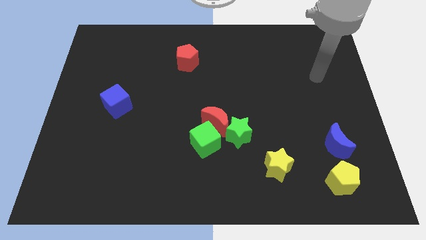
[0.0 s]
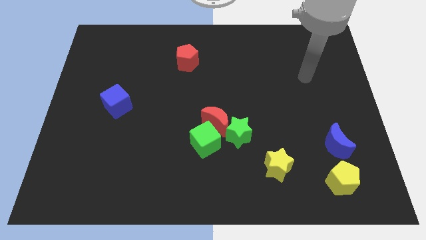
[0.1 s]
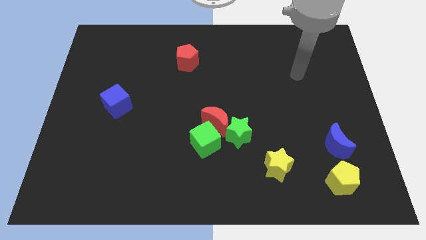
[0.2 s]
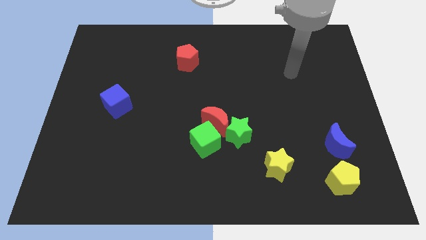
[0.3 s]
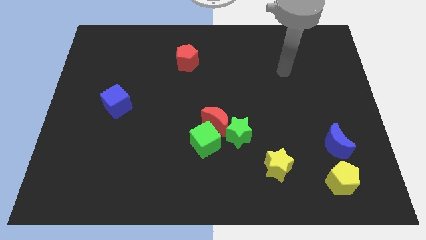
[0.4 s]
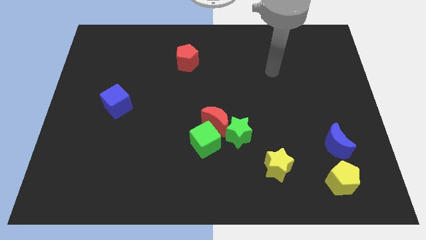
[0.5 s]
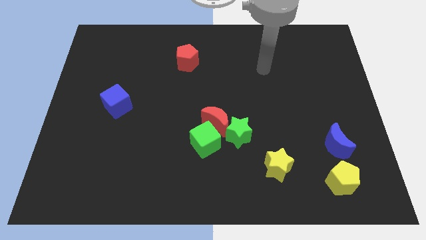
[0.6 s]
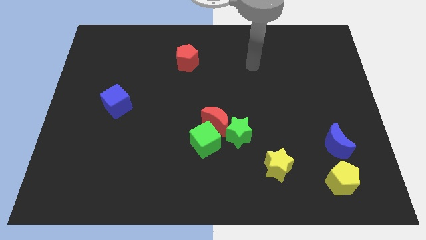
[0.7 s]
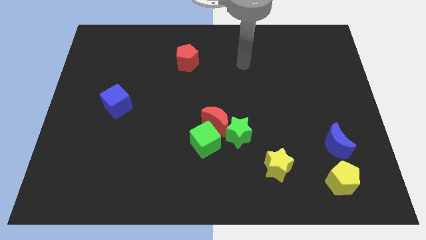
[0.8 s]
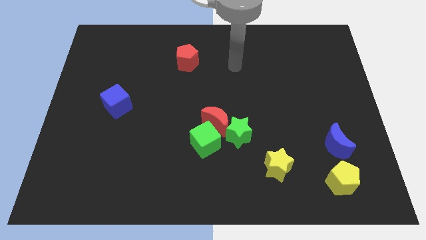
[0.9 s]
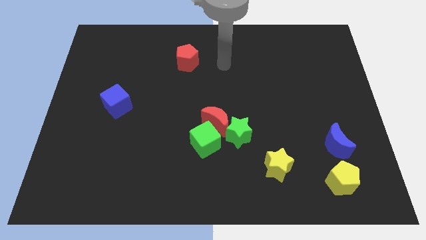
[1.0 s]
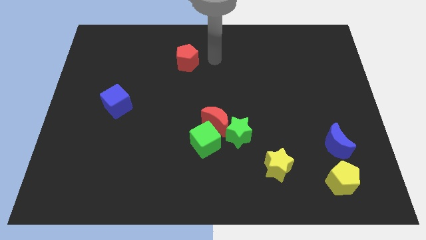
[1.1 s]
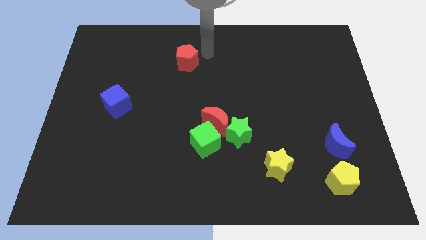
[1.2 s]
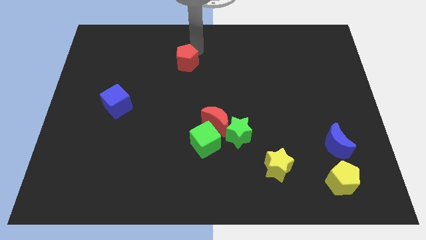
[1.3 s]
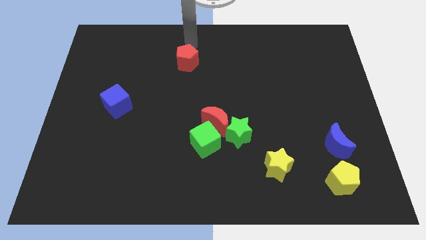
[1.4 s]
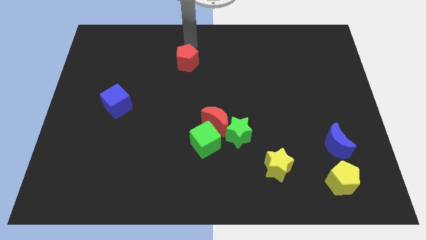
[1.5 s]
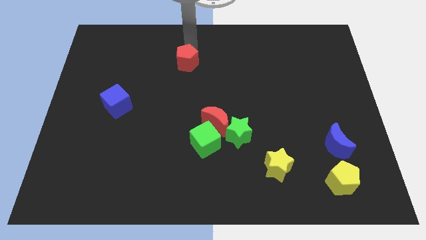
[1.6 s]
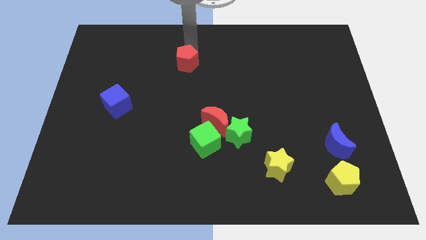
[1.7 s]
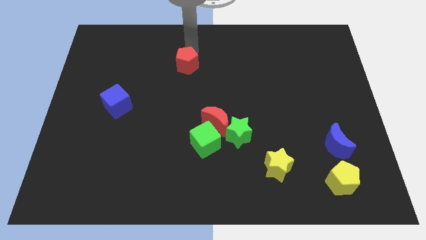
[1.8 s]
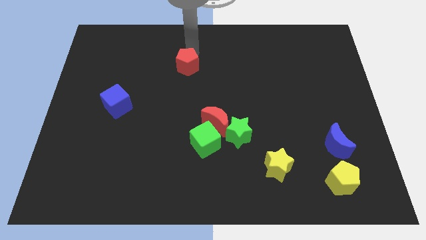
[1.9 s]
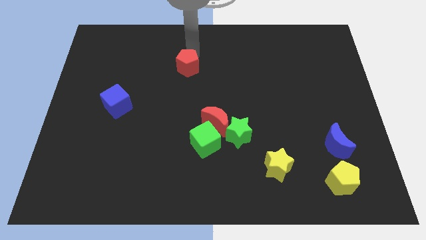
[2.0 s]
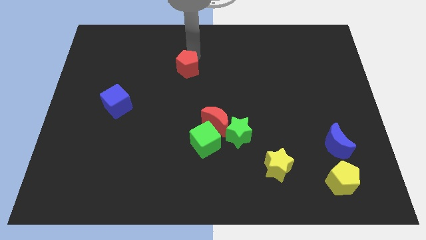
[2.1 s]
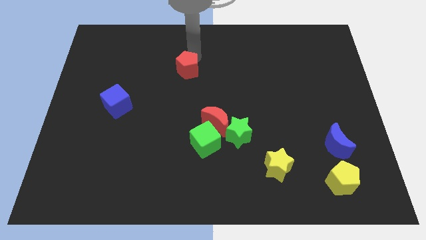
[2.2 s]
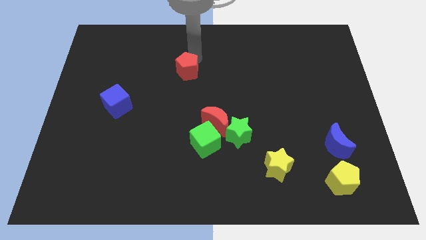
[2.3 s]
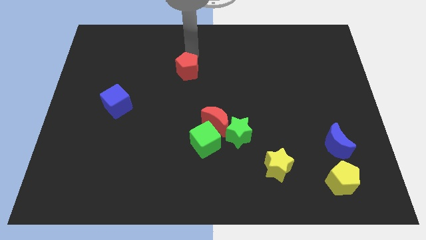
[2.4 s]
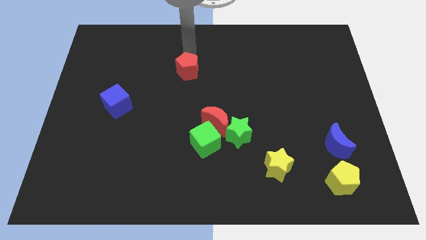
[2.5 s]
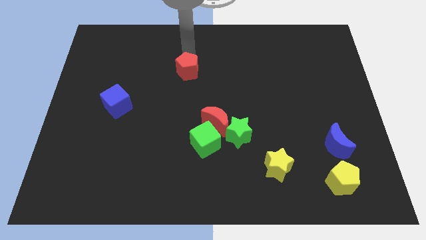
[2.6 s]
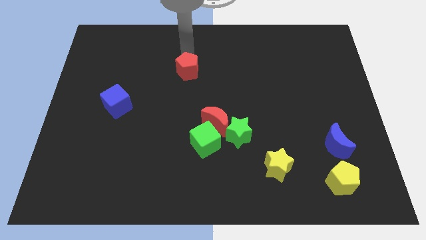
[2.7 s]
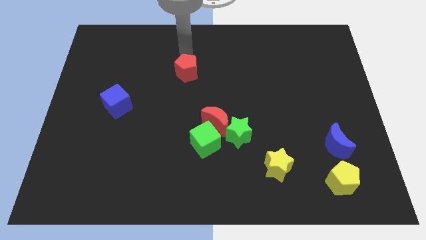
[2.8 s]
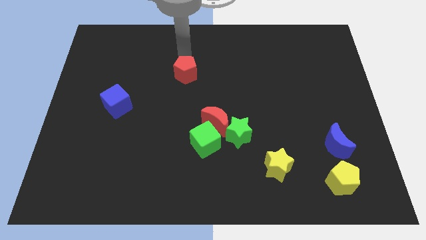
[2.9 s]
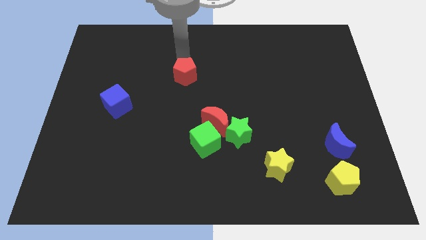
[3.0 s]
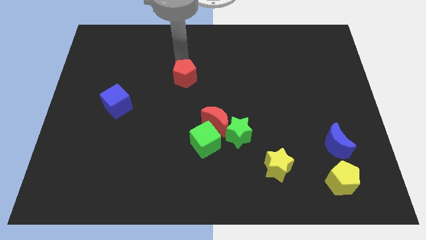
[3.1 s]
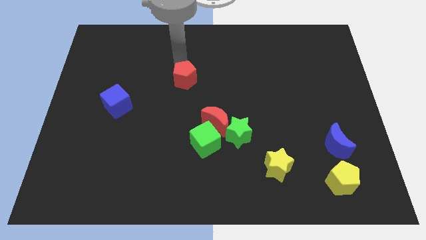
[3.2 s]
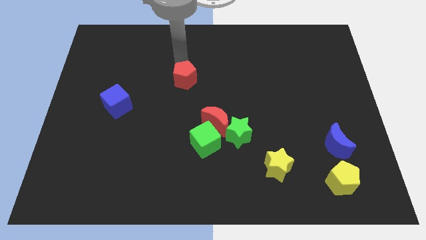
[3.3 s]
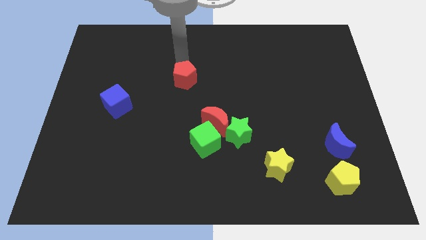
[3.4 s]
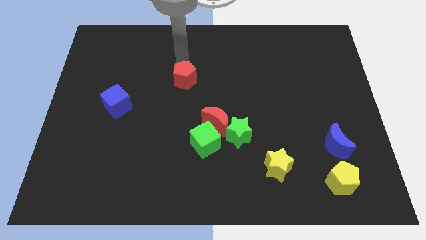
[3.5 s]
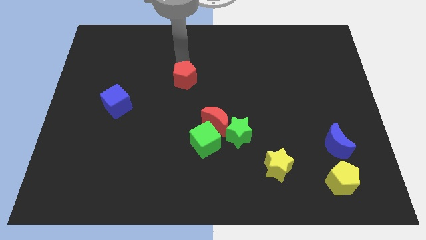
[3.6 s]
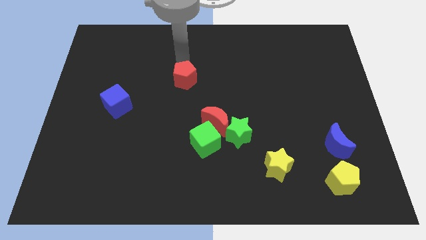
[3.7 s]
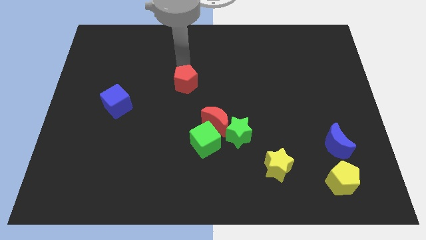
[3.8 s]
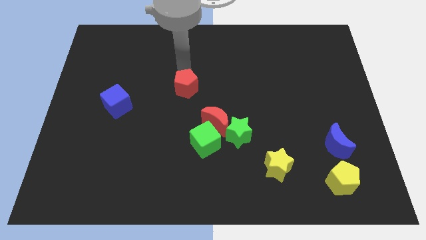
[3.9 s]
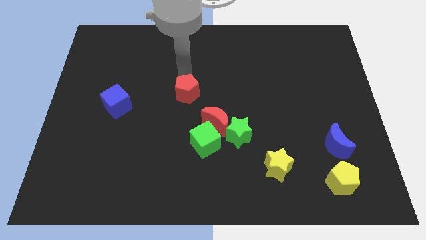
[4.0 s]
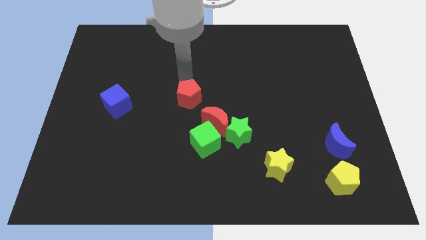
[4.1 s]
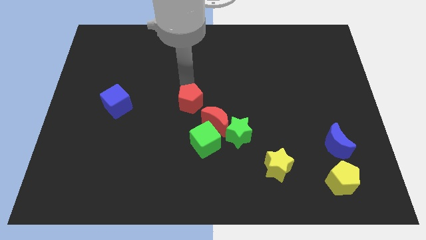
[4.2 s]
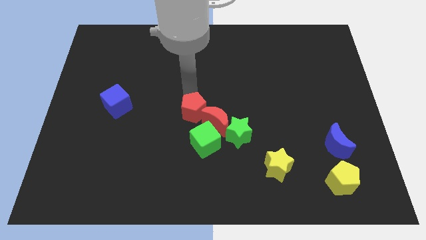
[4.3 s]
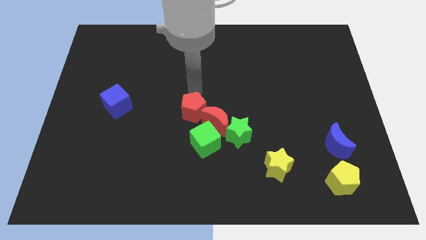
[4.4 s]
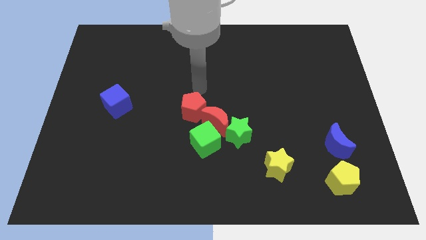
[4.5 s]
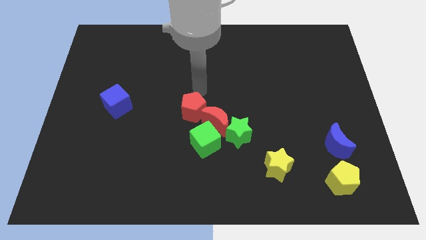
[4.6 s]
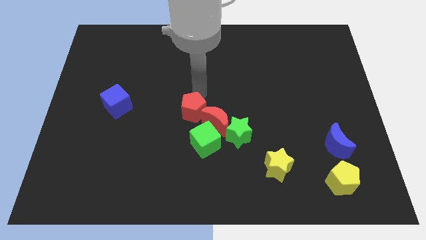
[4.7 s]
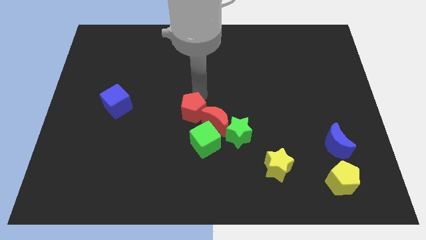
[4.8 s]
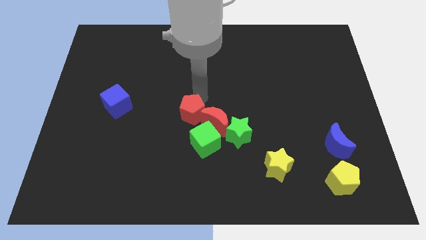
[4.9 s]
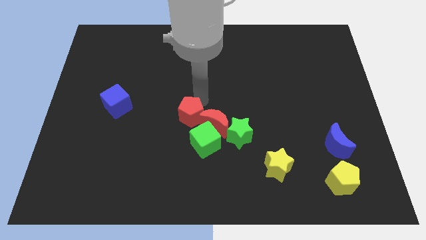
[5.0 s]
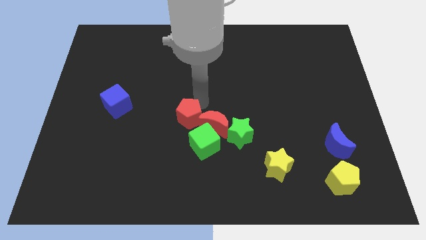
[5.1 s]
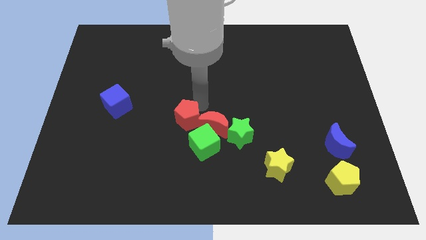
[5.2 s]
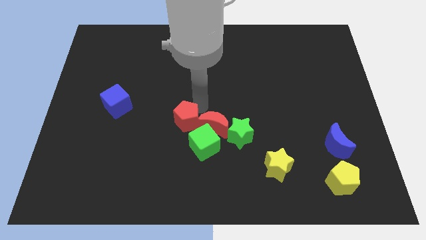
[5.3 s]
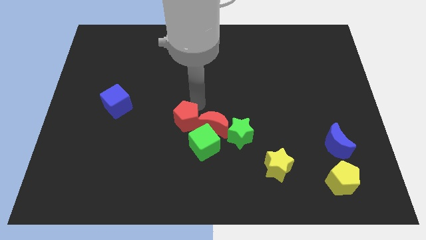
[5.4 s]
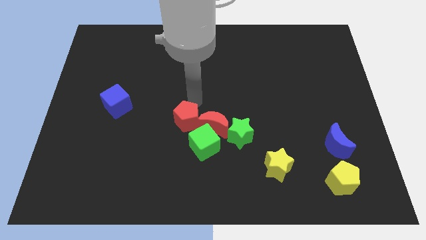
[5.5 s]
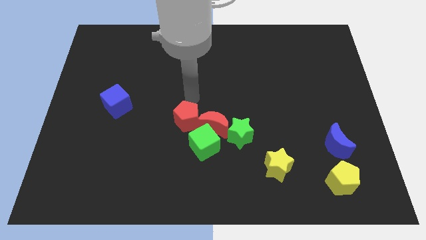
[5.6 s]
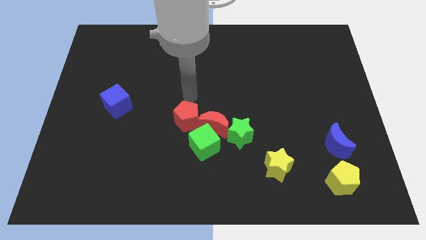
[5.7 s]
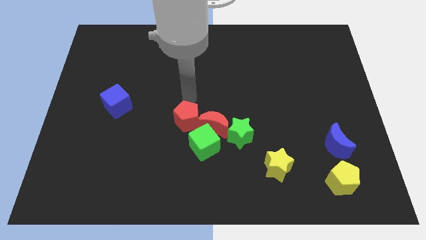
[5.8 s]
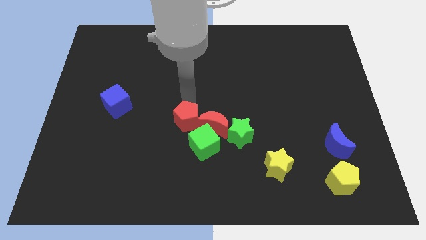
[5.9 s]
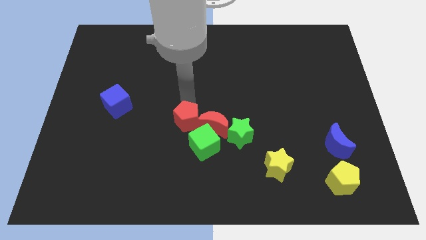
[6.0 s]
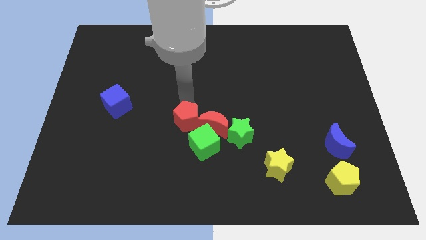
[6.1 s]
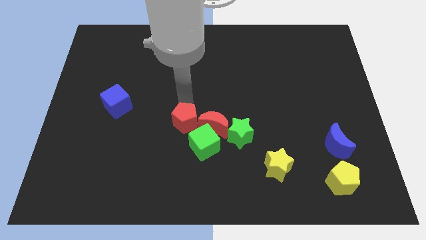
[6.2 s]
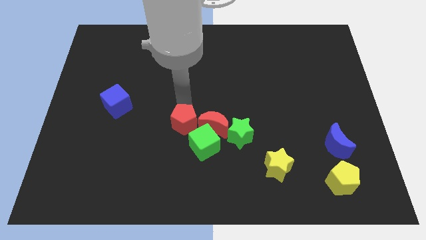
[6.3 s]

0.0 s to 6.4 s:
push the red pentagon downwards

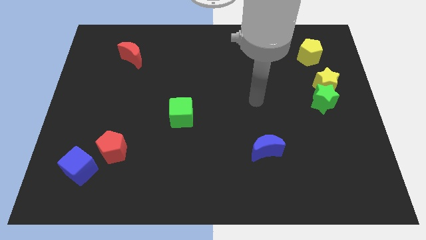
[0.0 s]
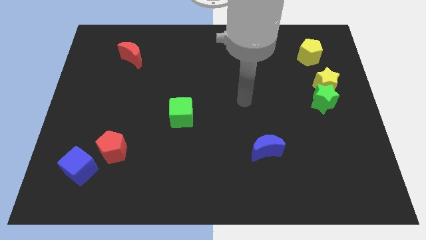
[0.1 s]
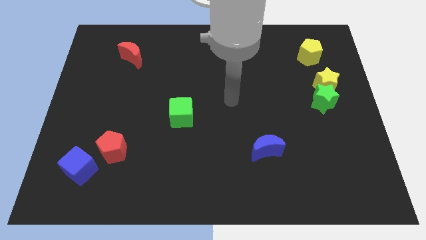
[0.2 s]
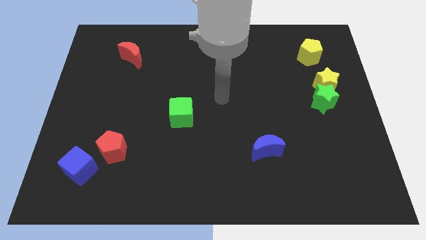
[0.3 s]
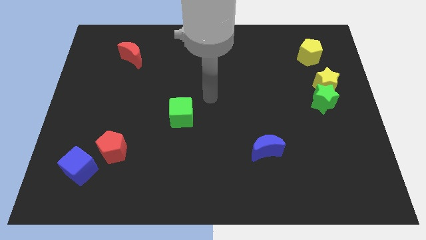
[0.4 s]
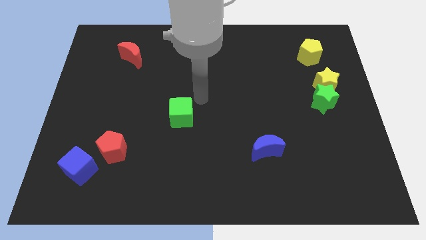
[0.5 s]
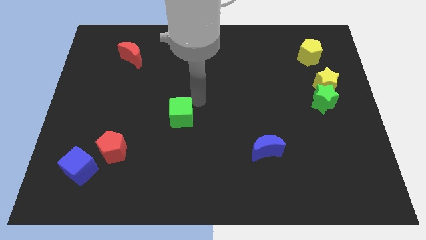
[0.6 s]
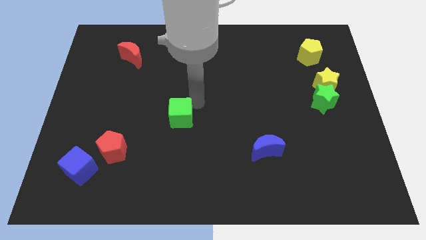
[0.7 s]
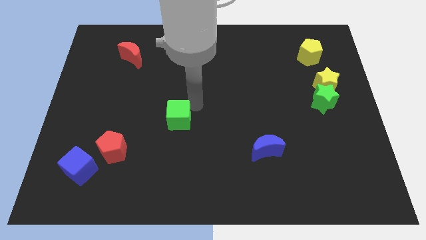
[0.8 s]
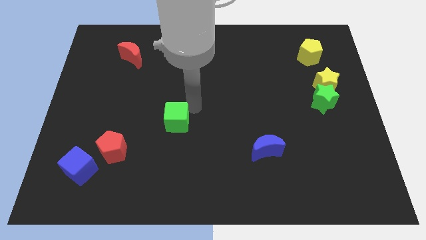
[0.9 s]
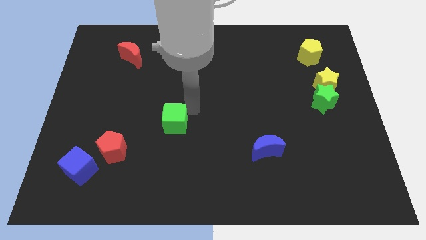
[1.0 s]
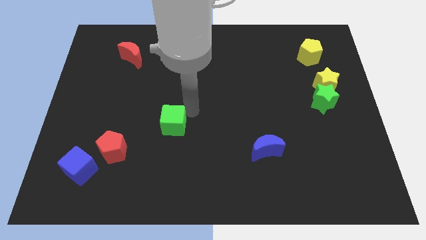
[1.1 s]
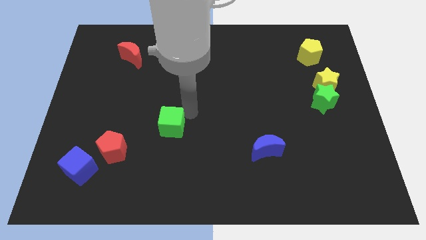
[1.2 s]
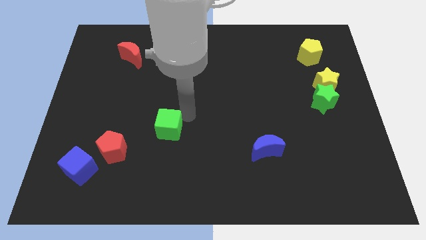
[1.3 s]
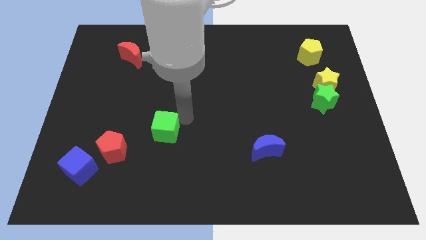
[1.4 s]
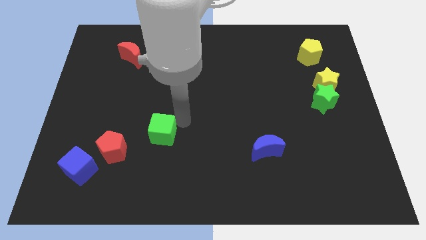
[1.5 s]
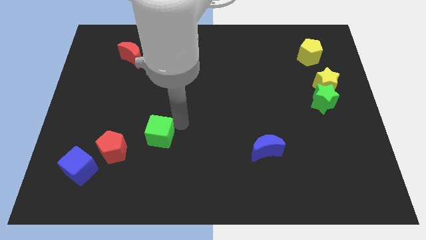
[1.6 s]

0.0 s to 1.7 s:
slide the green cube somewhat downwards and left

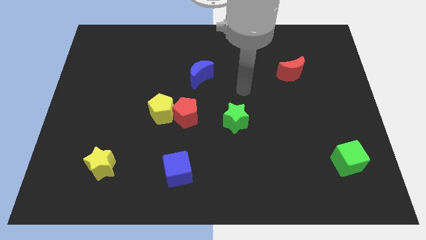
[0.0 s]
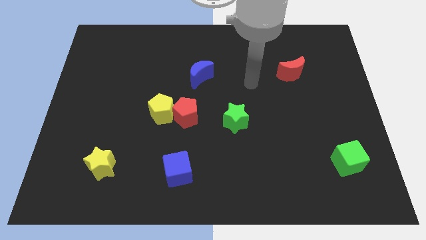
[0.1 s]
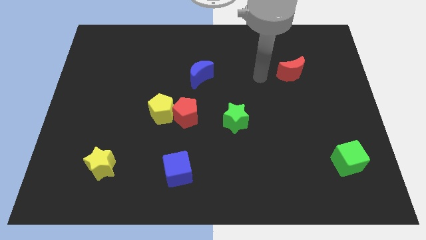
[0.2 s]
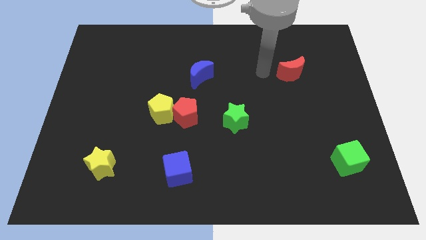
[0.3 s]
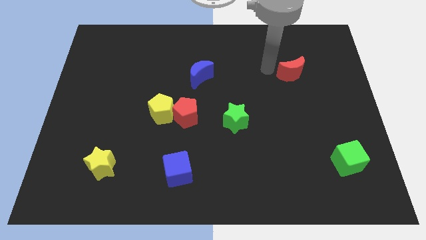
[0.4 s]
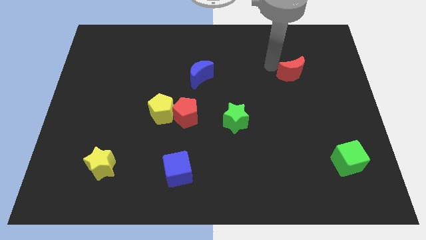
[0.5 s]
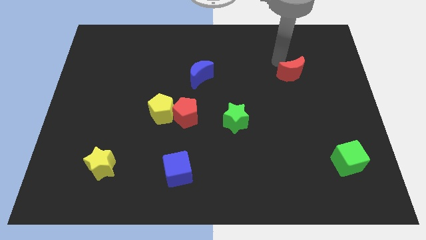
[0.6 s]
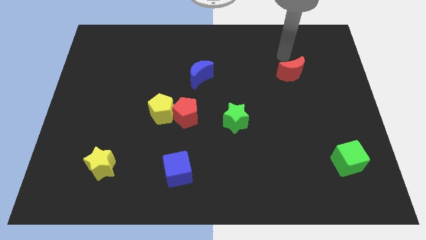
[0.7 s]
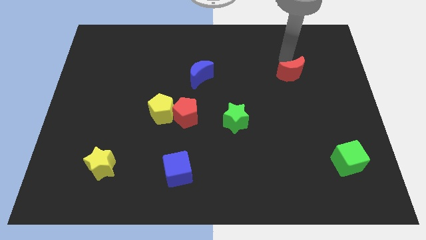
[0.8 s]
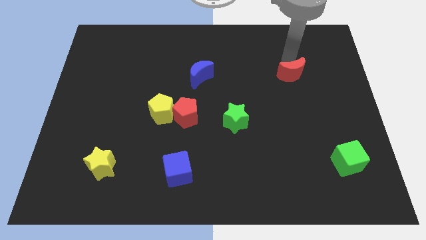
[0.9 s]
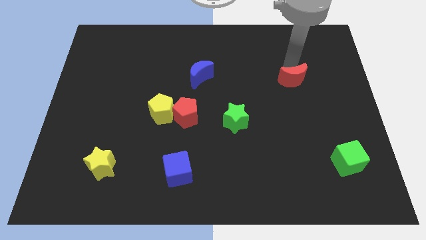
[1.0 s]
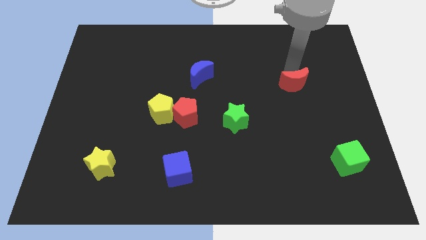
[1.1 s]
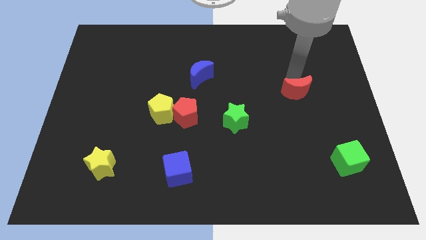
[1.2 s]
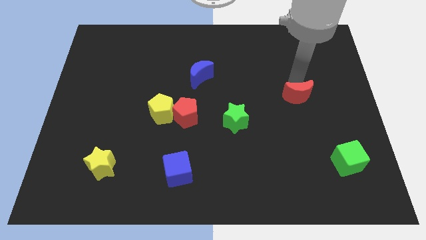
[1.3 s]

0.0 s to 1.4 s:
move the red moon a bit down
